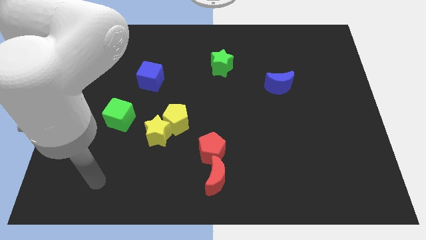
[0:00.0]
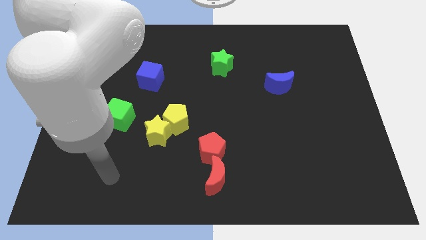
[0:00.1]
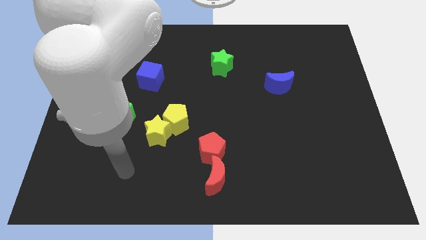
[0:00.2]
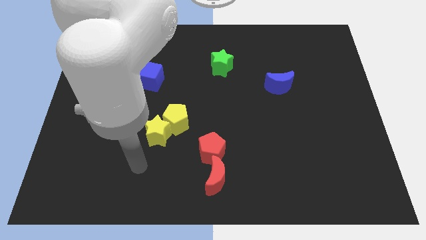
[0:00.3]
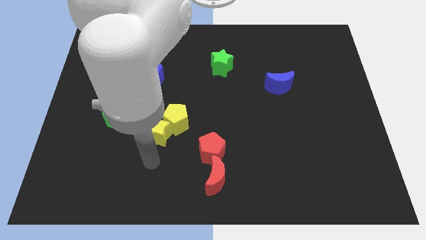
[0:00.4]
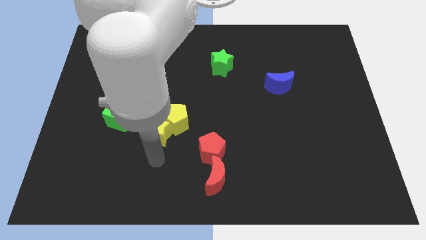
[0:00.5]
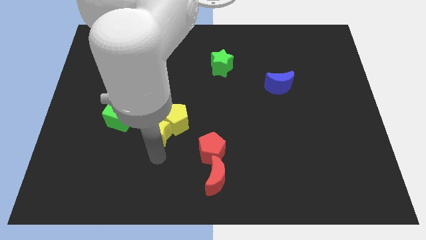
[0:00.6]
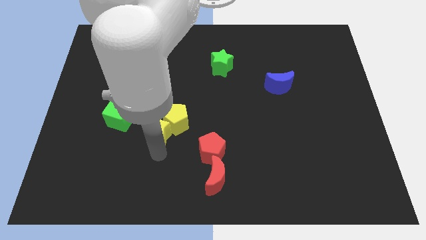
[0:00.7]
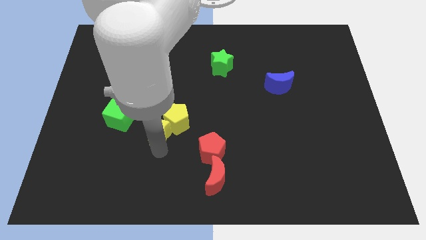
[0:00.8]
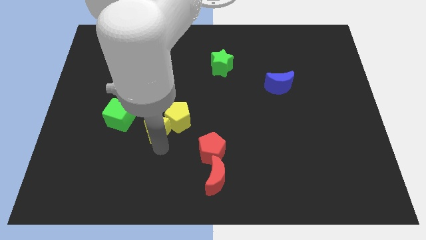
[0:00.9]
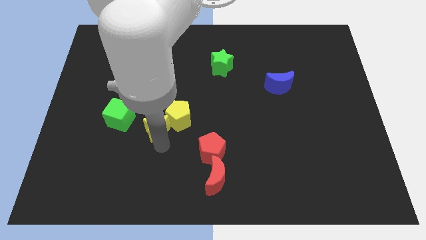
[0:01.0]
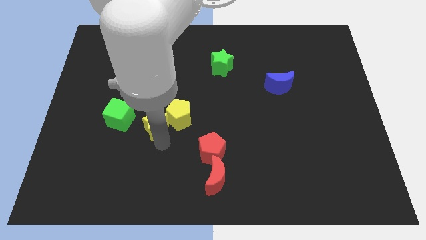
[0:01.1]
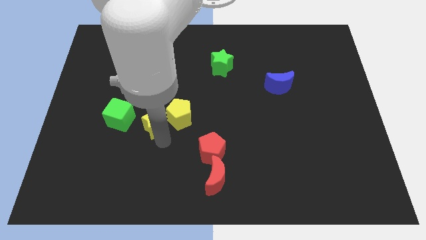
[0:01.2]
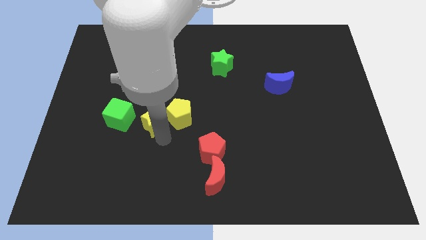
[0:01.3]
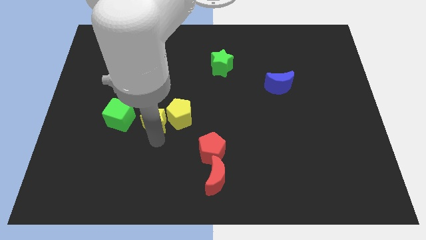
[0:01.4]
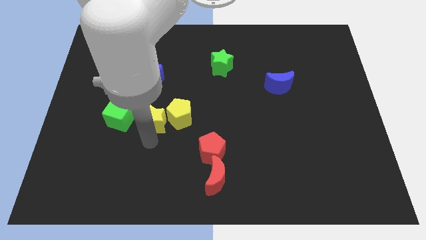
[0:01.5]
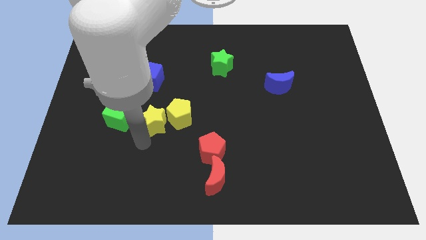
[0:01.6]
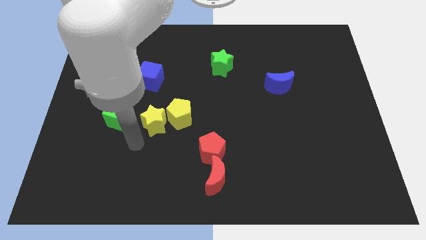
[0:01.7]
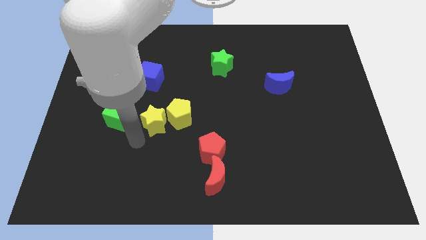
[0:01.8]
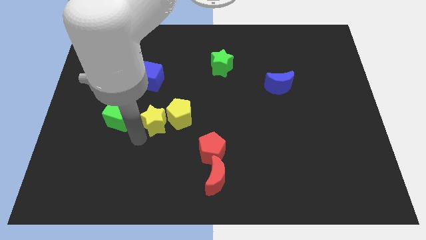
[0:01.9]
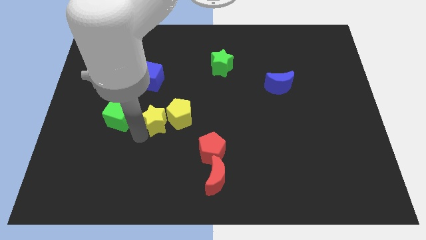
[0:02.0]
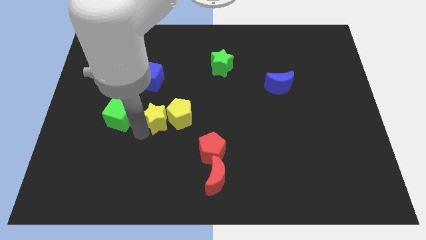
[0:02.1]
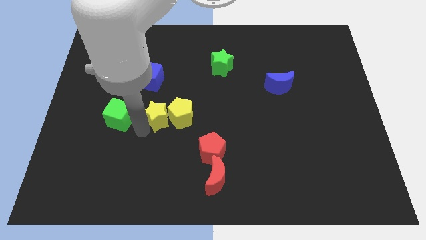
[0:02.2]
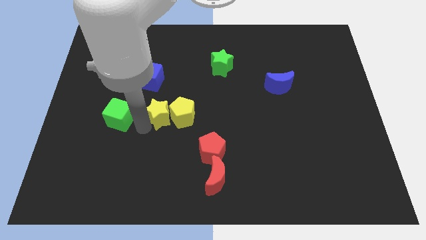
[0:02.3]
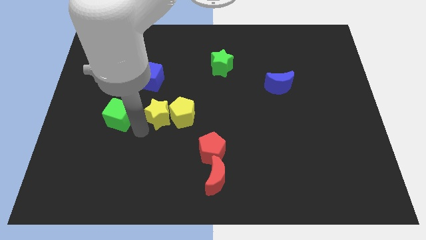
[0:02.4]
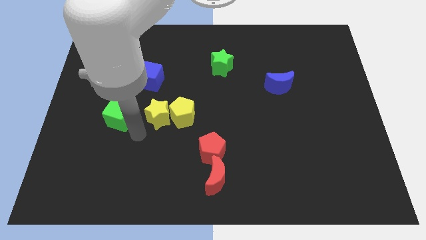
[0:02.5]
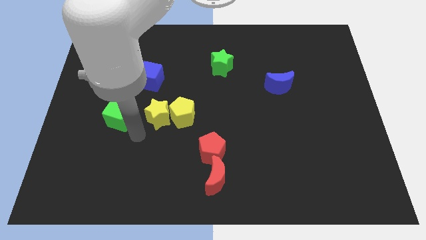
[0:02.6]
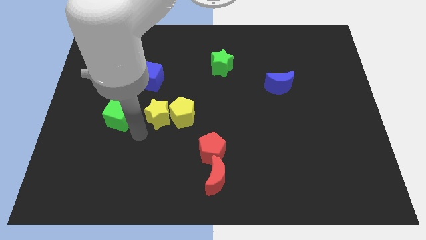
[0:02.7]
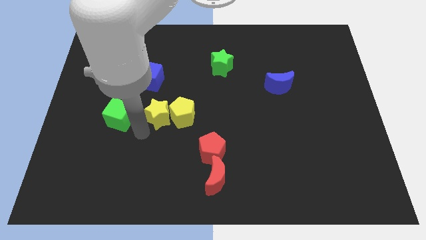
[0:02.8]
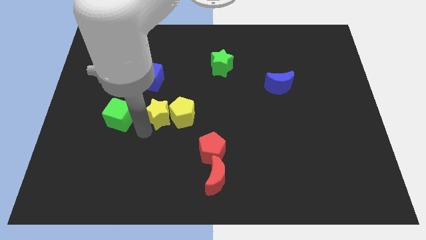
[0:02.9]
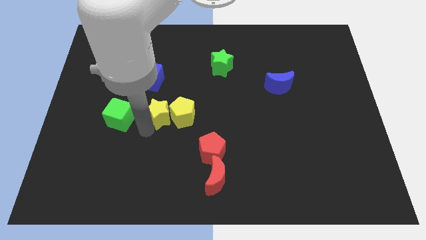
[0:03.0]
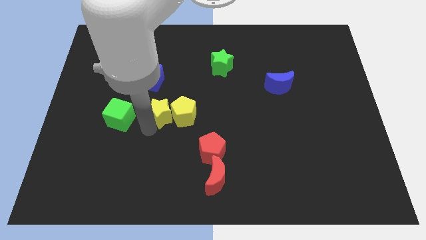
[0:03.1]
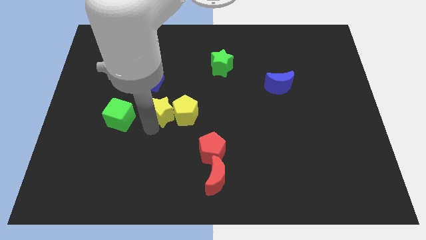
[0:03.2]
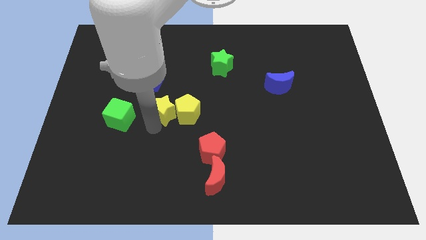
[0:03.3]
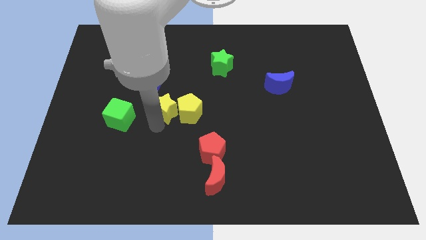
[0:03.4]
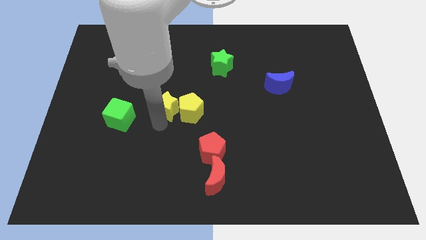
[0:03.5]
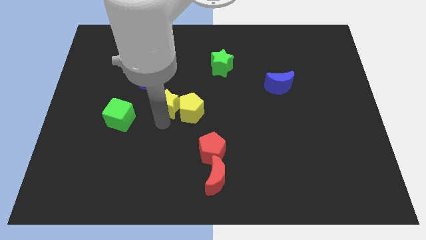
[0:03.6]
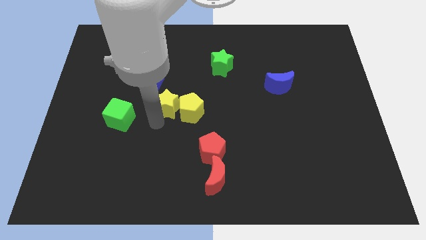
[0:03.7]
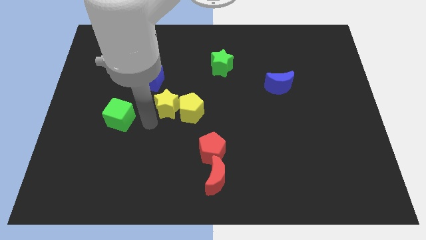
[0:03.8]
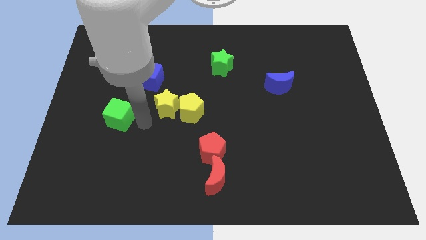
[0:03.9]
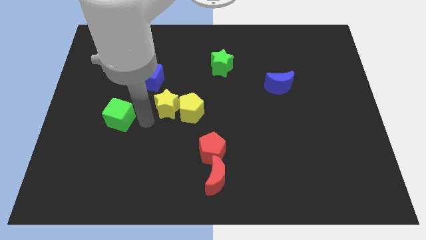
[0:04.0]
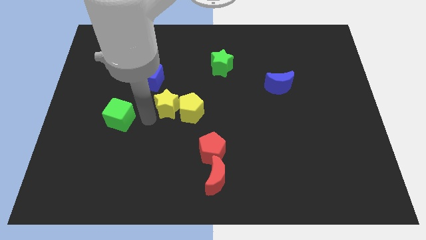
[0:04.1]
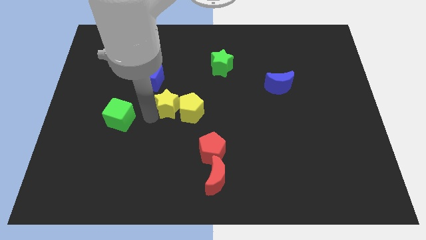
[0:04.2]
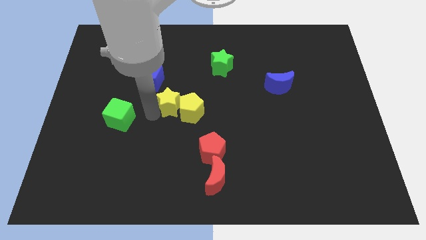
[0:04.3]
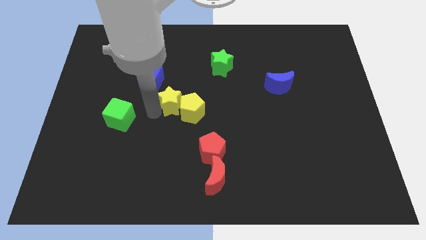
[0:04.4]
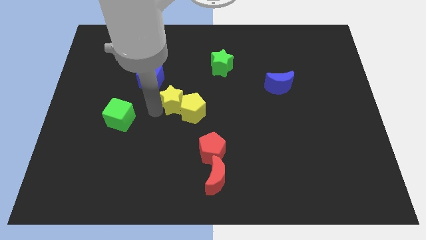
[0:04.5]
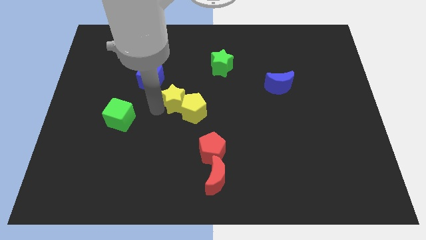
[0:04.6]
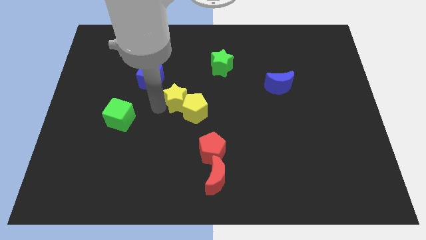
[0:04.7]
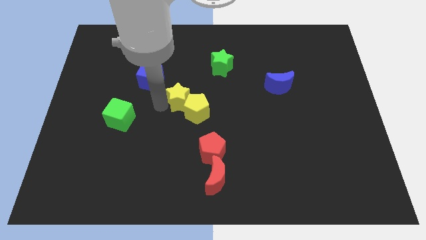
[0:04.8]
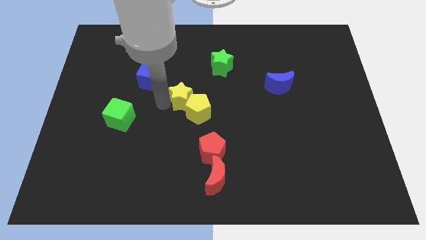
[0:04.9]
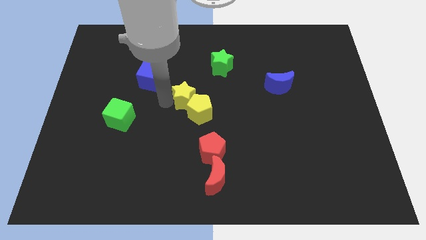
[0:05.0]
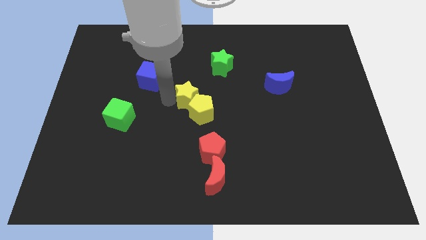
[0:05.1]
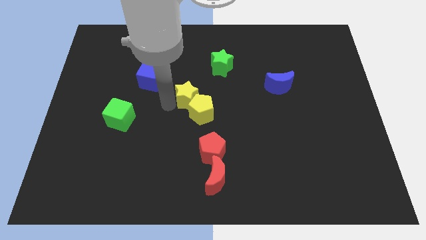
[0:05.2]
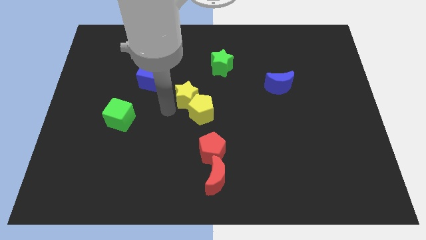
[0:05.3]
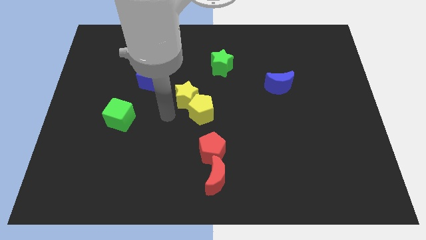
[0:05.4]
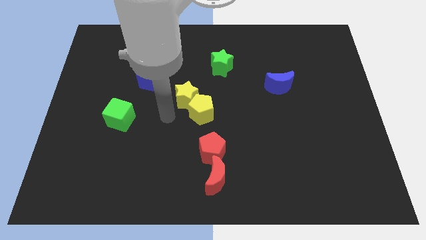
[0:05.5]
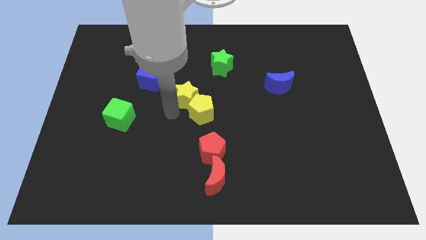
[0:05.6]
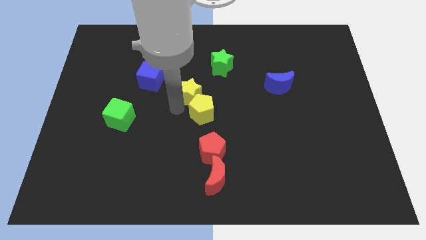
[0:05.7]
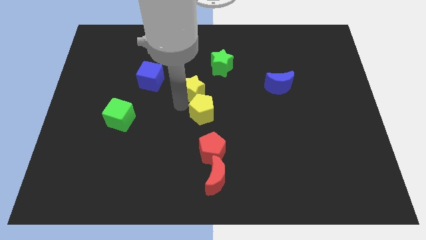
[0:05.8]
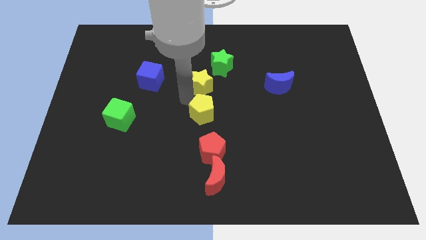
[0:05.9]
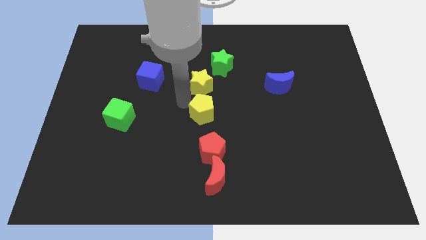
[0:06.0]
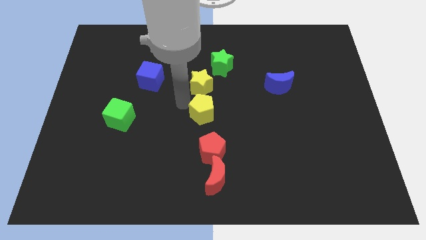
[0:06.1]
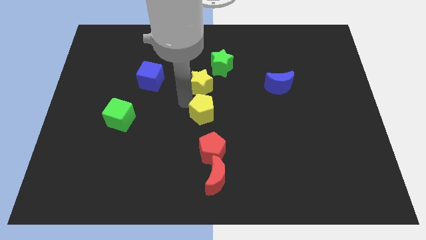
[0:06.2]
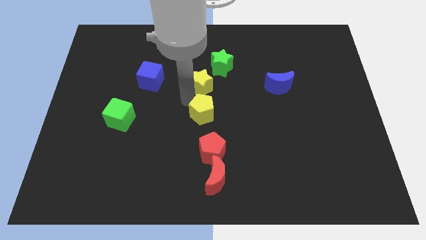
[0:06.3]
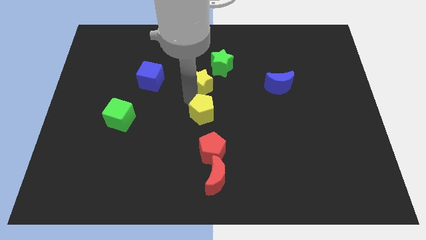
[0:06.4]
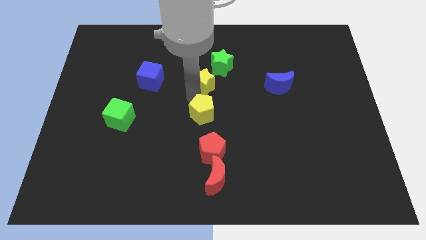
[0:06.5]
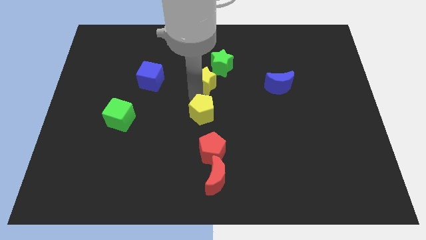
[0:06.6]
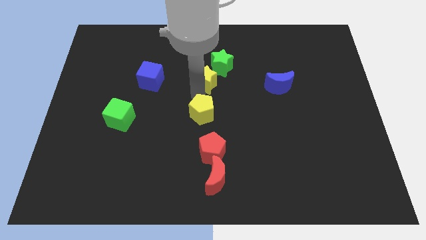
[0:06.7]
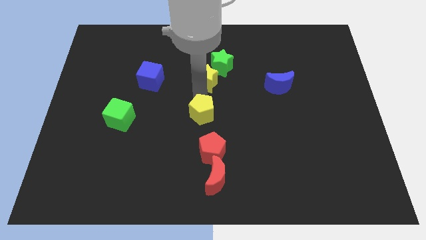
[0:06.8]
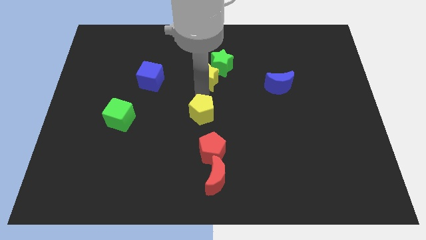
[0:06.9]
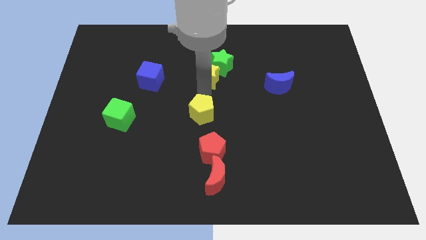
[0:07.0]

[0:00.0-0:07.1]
slide the yellow star towards the green star

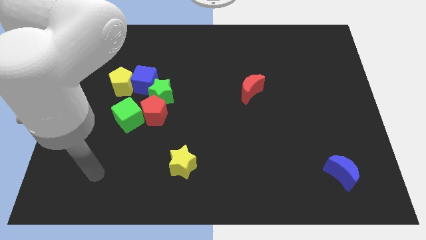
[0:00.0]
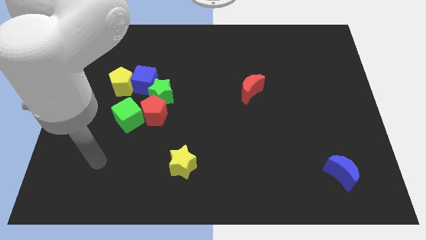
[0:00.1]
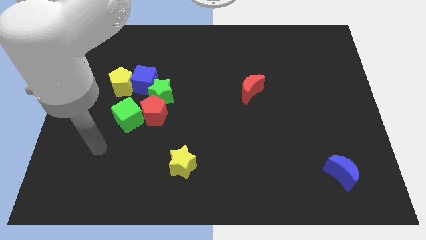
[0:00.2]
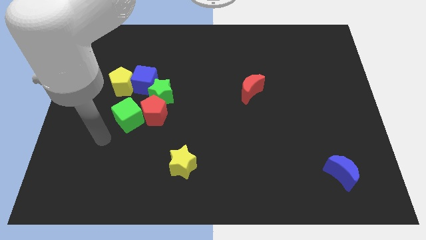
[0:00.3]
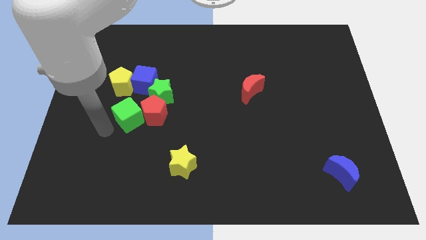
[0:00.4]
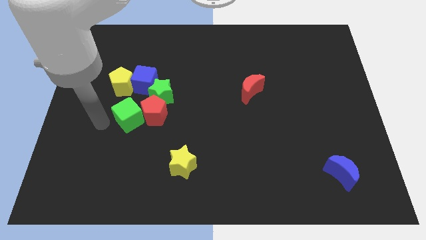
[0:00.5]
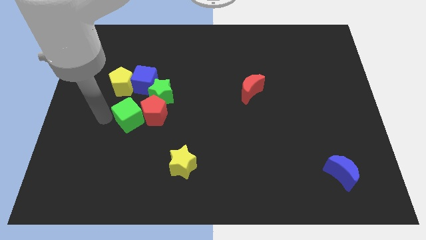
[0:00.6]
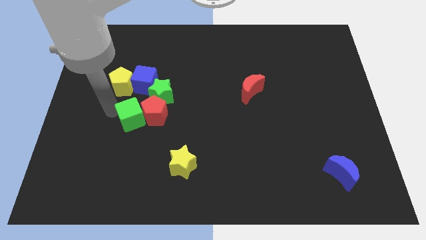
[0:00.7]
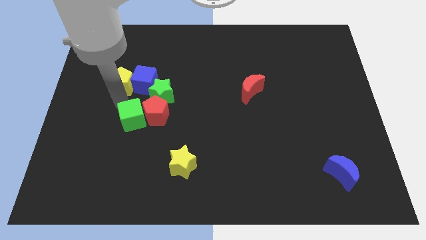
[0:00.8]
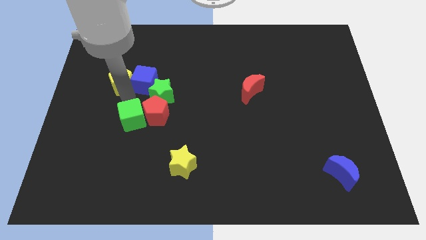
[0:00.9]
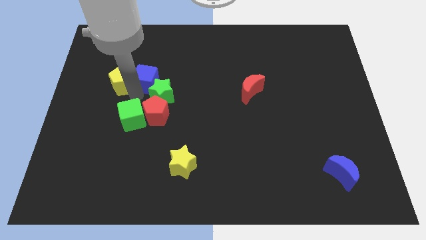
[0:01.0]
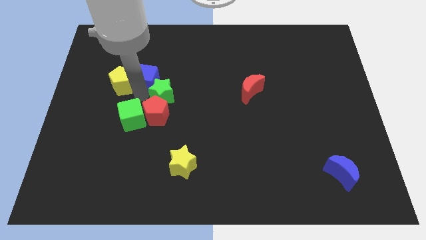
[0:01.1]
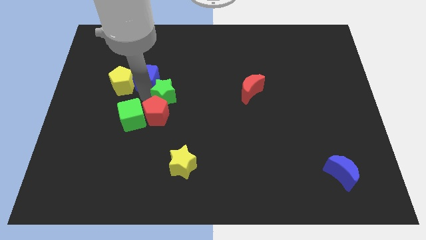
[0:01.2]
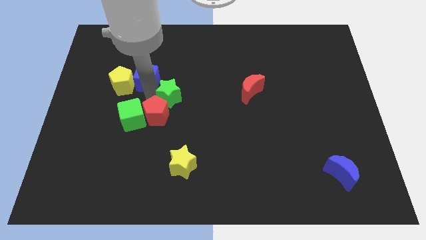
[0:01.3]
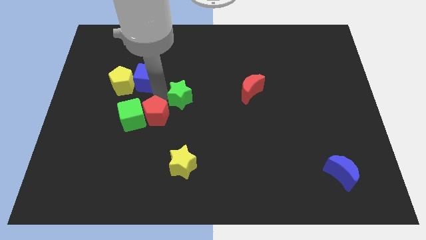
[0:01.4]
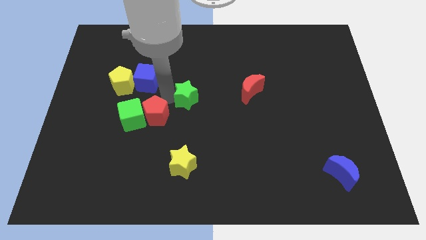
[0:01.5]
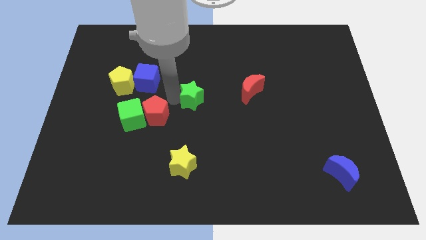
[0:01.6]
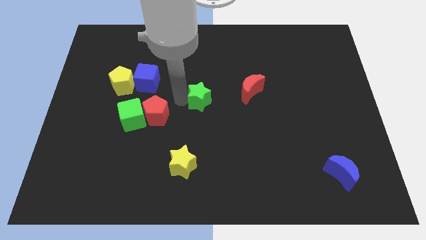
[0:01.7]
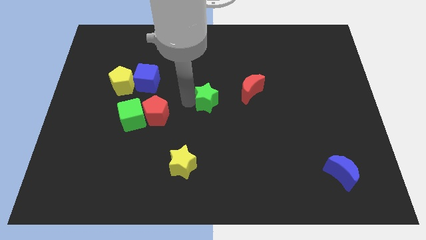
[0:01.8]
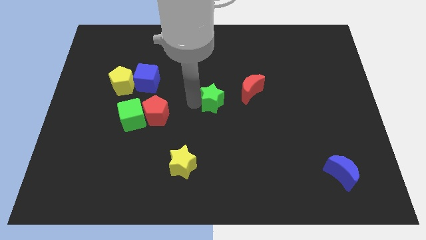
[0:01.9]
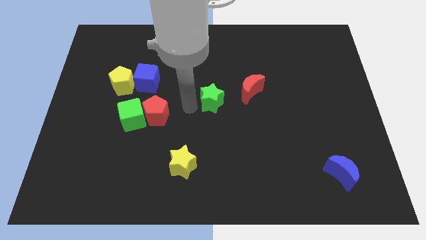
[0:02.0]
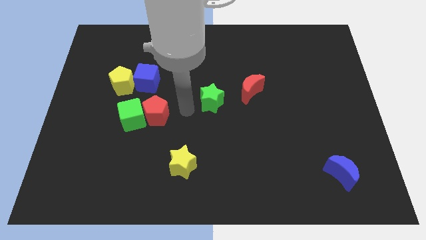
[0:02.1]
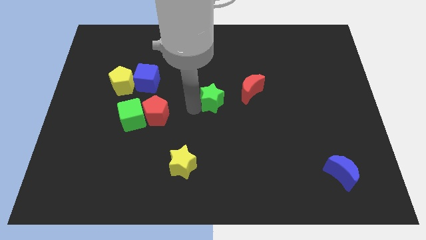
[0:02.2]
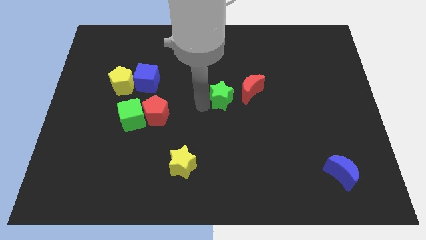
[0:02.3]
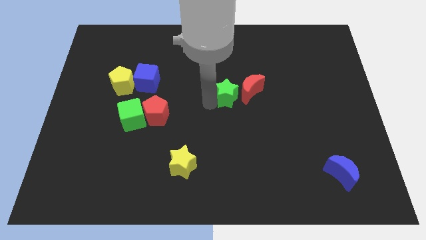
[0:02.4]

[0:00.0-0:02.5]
move the green star close to the red moon
